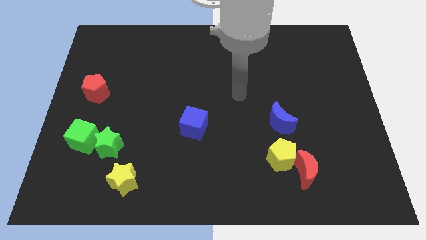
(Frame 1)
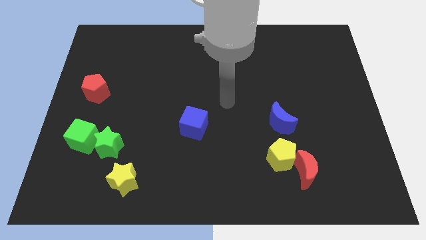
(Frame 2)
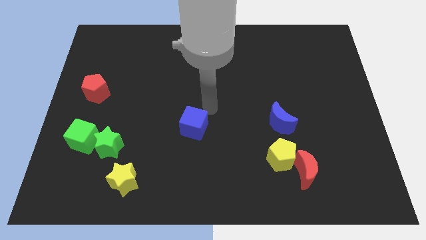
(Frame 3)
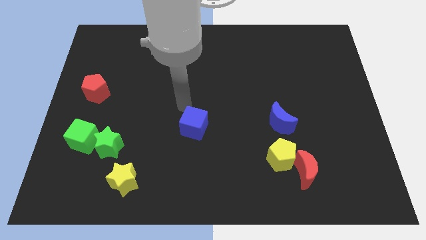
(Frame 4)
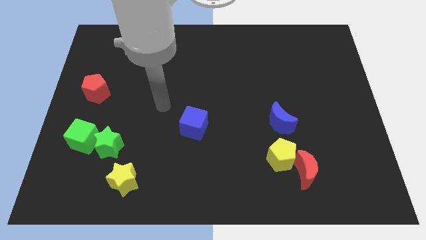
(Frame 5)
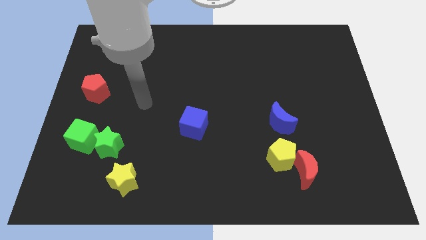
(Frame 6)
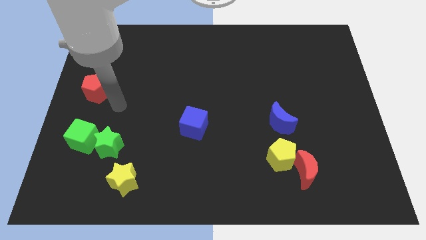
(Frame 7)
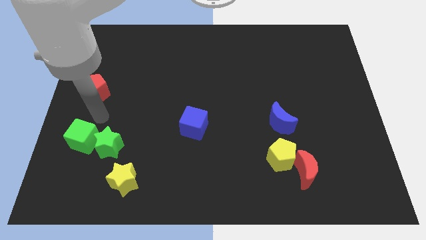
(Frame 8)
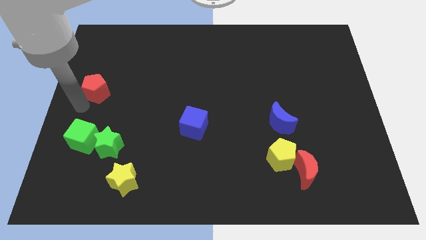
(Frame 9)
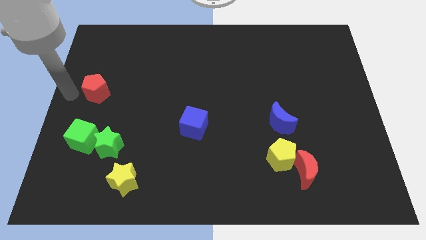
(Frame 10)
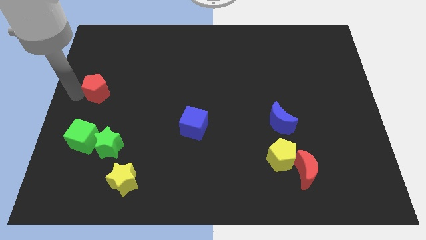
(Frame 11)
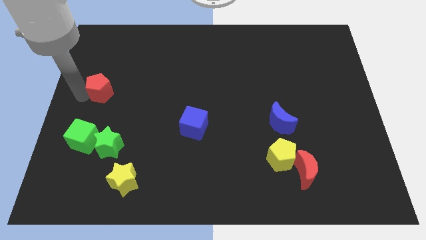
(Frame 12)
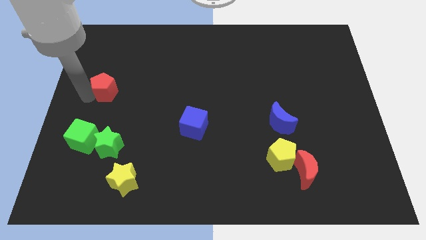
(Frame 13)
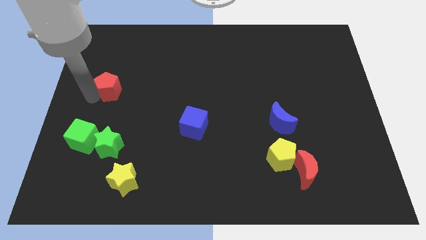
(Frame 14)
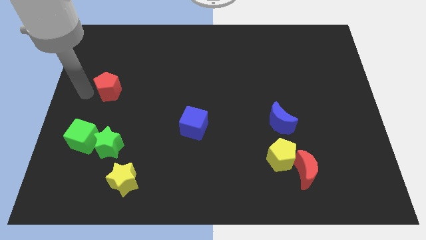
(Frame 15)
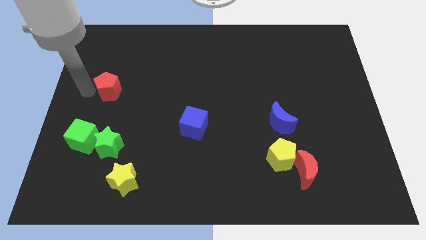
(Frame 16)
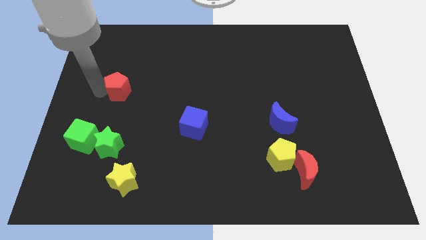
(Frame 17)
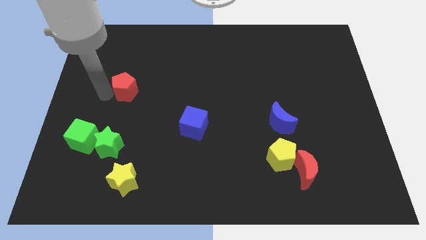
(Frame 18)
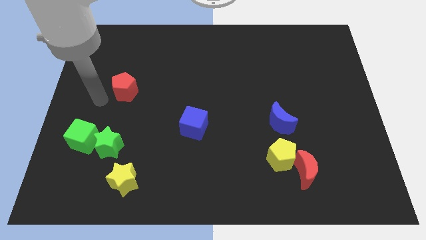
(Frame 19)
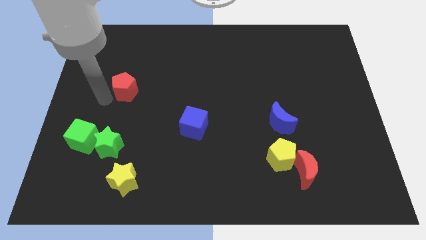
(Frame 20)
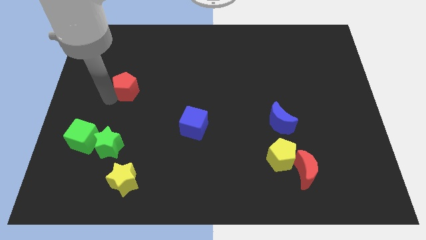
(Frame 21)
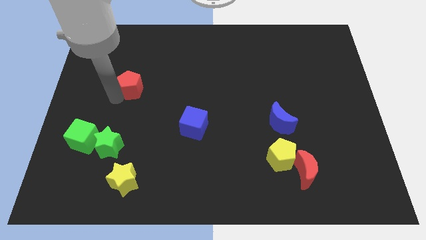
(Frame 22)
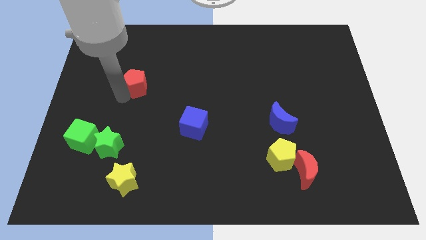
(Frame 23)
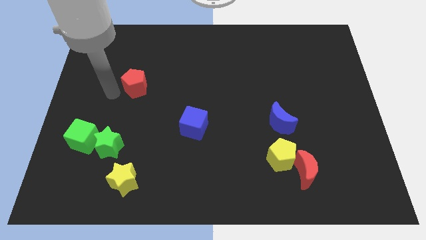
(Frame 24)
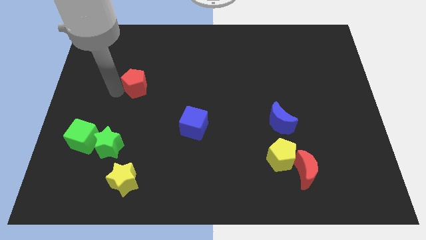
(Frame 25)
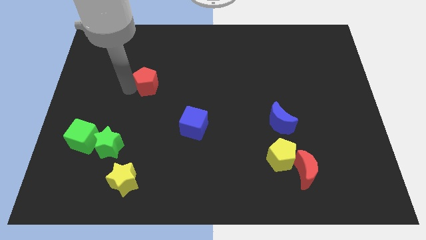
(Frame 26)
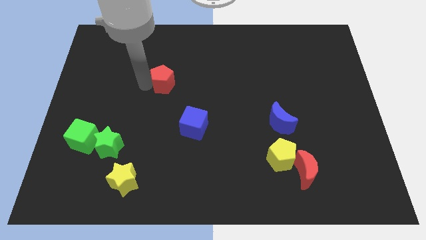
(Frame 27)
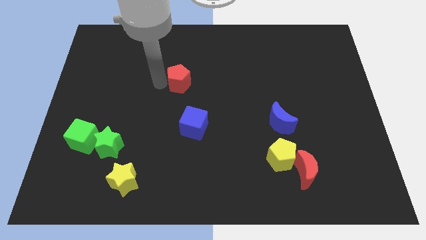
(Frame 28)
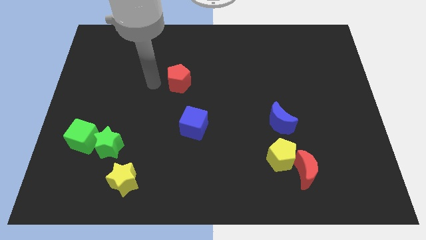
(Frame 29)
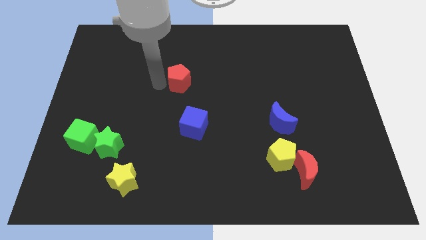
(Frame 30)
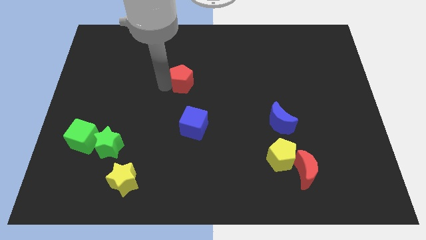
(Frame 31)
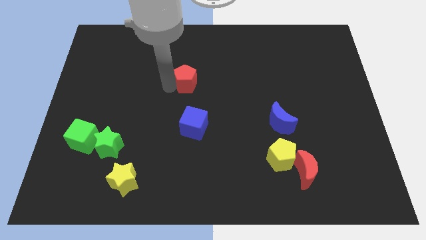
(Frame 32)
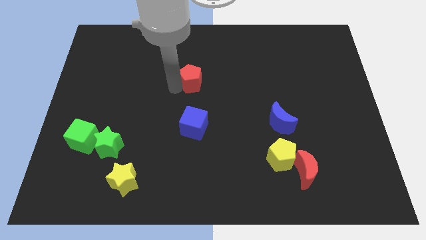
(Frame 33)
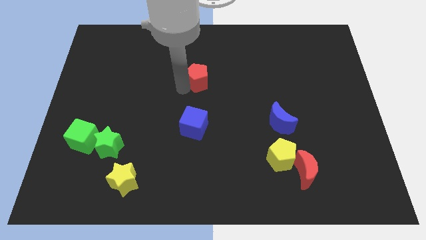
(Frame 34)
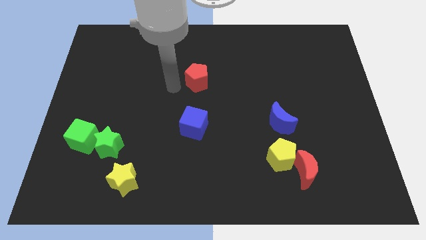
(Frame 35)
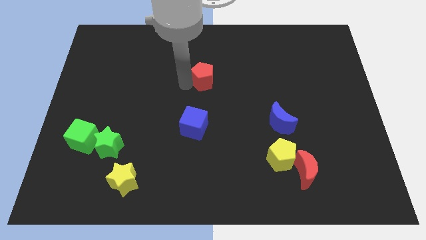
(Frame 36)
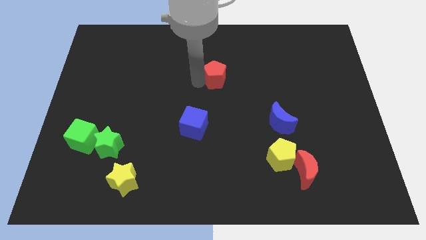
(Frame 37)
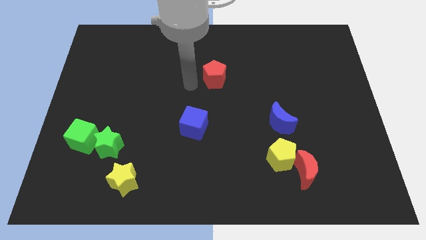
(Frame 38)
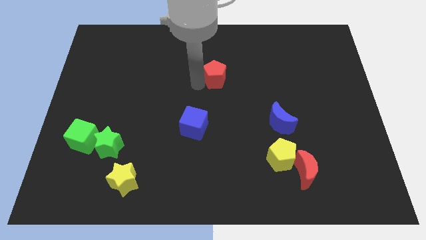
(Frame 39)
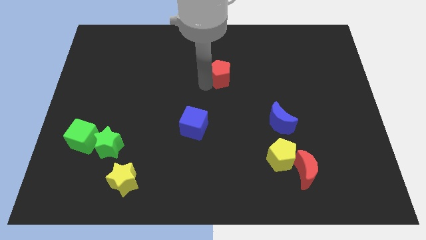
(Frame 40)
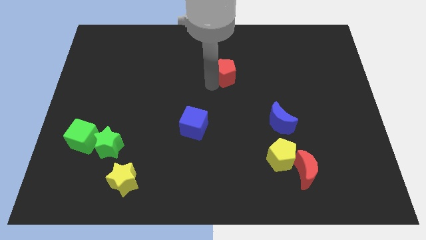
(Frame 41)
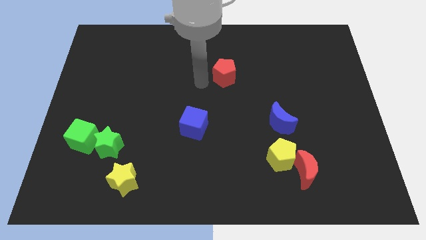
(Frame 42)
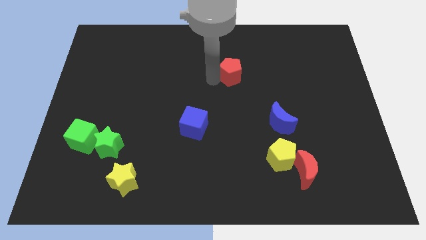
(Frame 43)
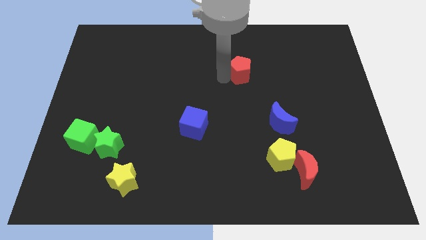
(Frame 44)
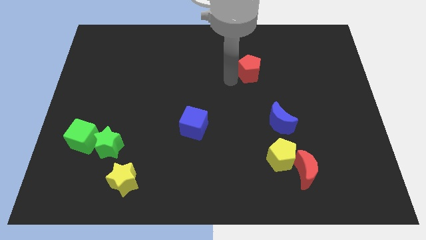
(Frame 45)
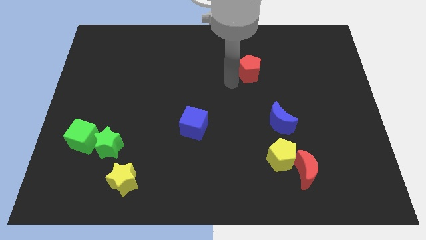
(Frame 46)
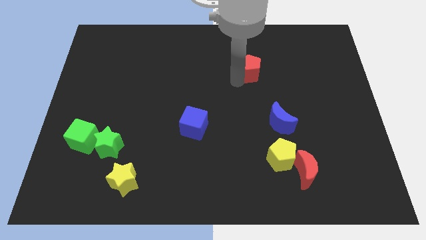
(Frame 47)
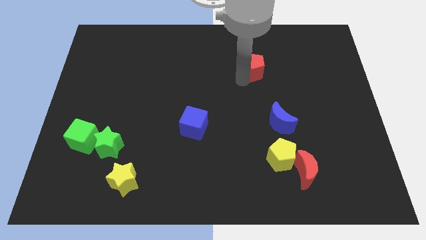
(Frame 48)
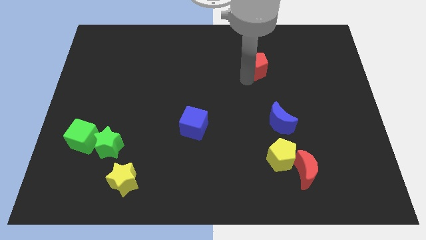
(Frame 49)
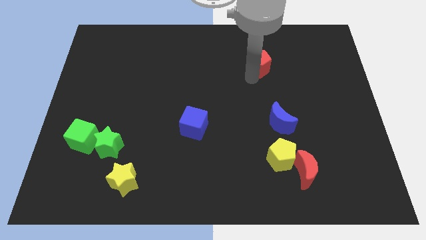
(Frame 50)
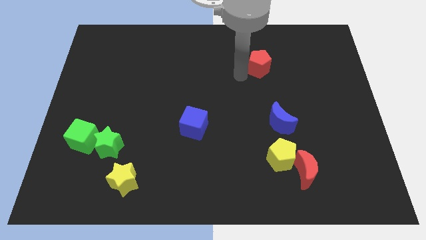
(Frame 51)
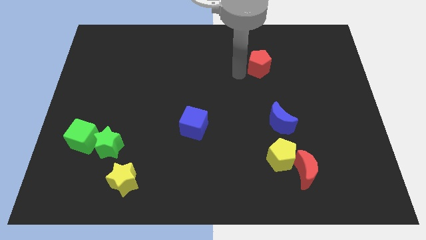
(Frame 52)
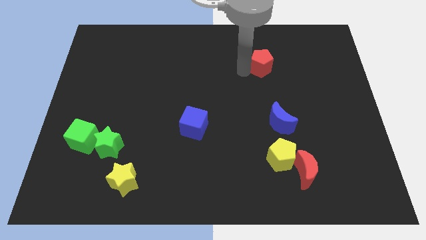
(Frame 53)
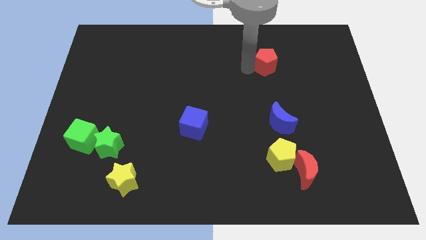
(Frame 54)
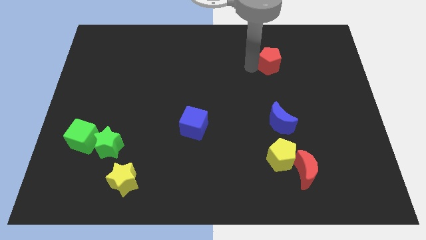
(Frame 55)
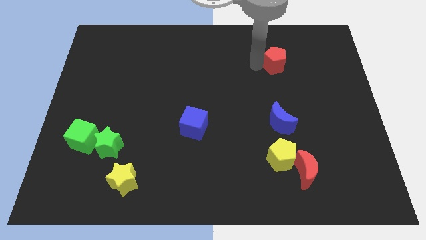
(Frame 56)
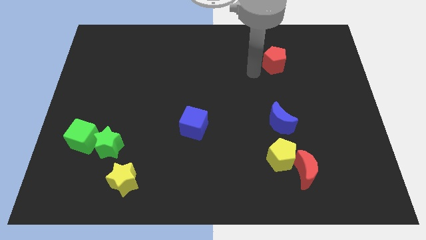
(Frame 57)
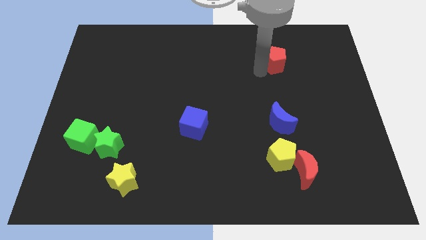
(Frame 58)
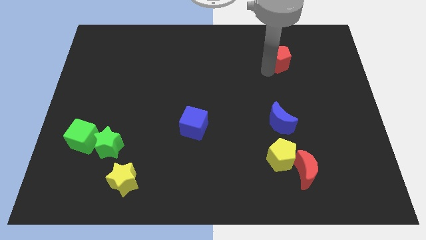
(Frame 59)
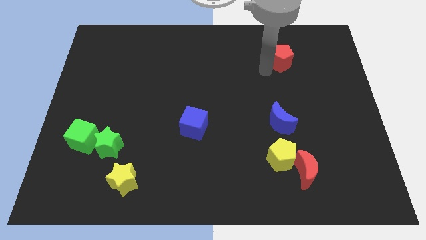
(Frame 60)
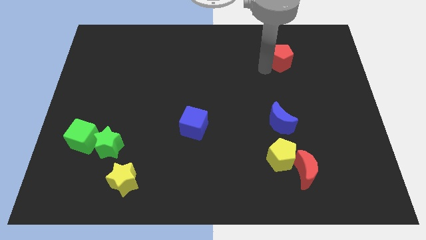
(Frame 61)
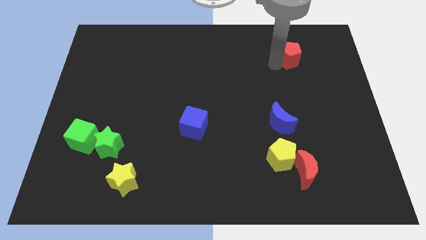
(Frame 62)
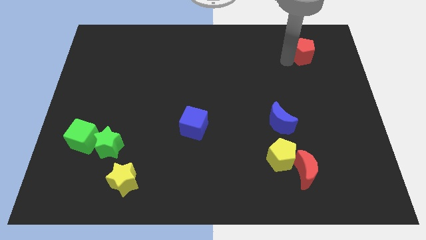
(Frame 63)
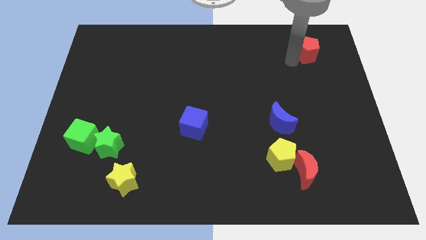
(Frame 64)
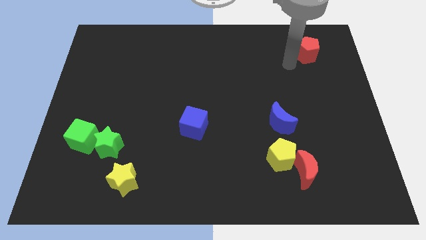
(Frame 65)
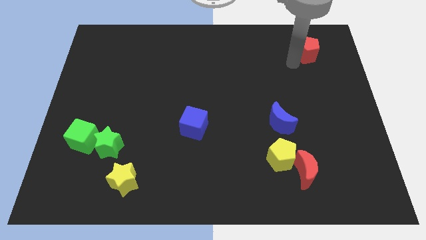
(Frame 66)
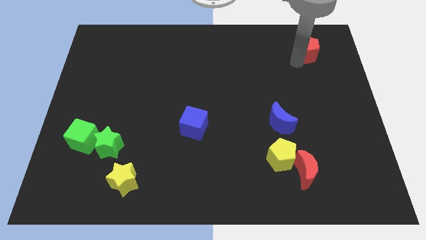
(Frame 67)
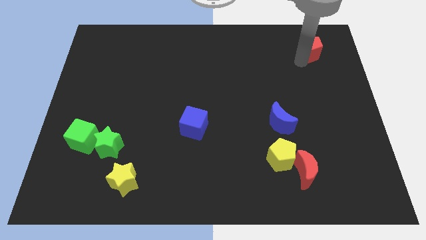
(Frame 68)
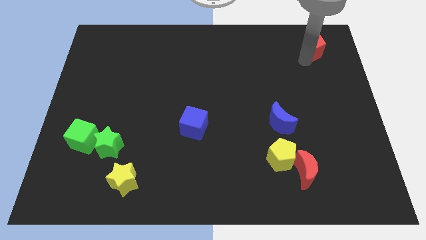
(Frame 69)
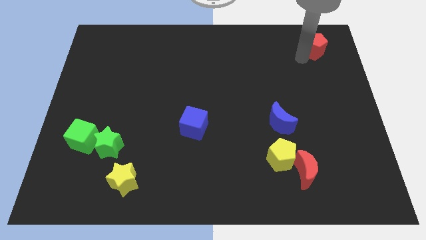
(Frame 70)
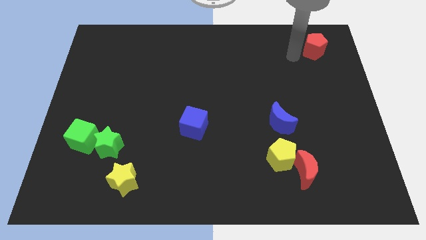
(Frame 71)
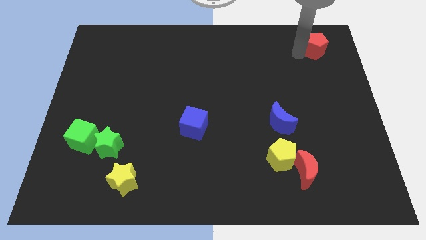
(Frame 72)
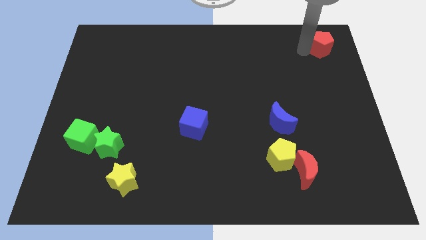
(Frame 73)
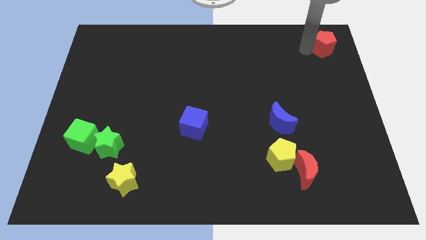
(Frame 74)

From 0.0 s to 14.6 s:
put the red pentagon to the top right of the board
